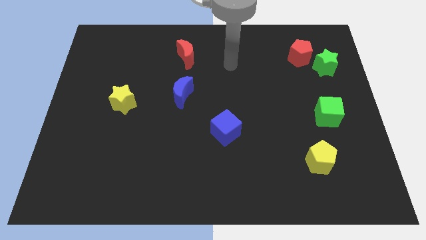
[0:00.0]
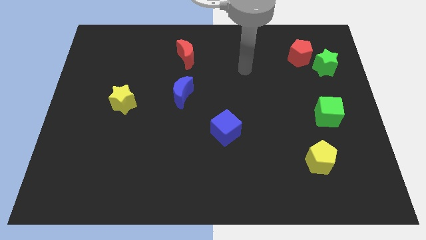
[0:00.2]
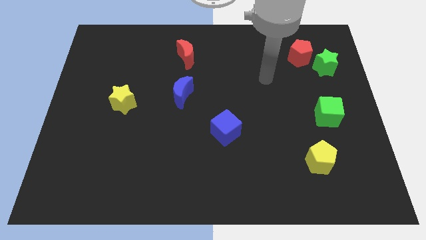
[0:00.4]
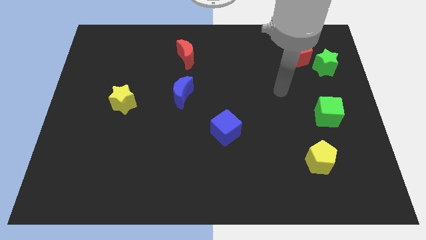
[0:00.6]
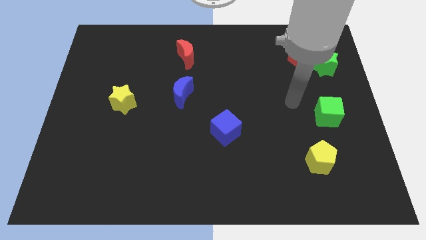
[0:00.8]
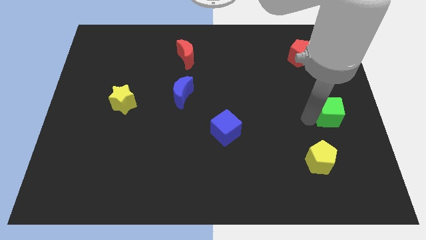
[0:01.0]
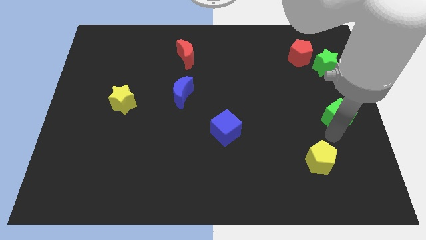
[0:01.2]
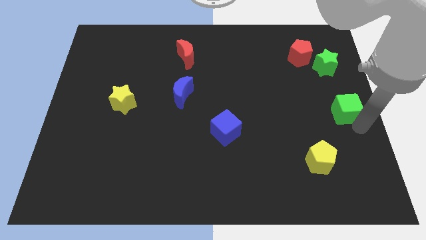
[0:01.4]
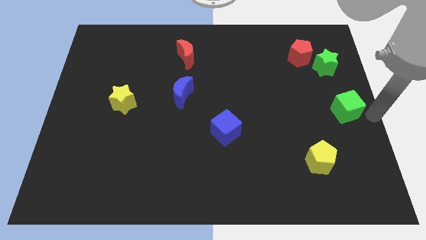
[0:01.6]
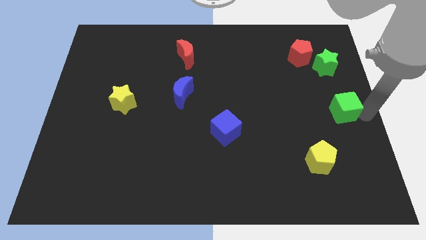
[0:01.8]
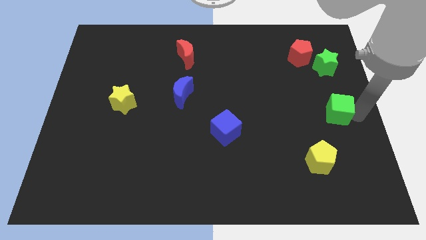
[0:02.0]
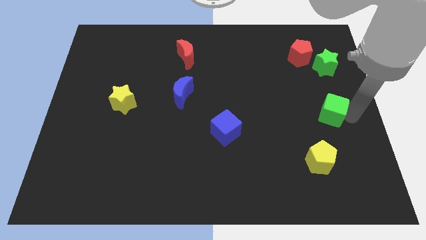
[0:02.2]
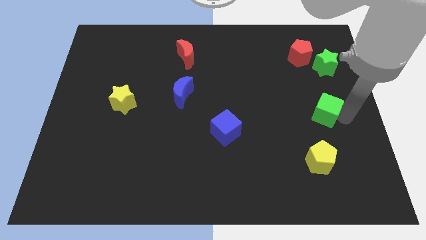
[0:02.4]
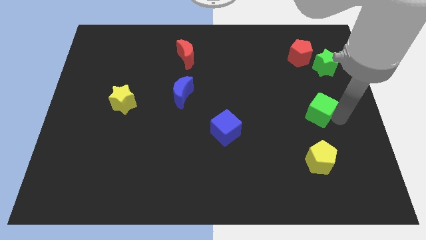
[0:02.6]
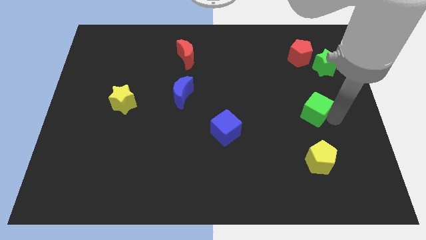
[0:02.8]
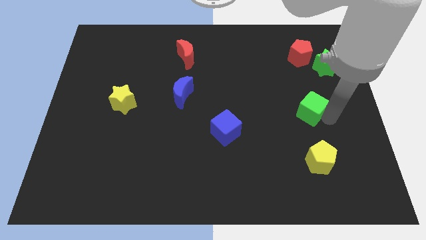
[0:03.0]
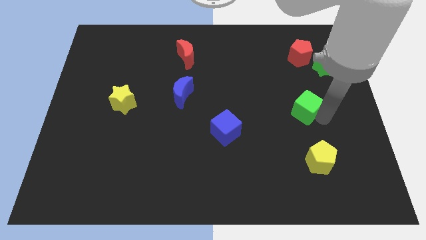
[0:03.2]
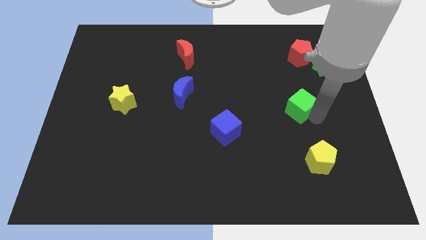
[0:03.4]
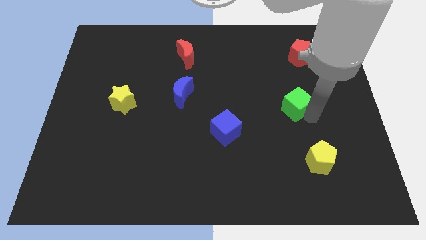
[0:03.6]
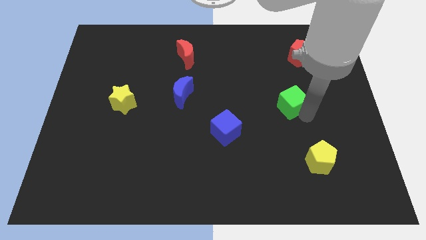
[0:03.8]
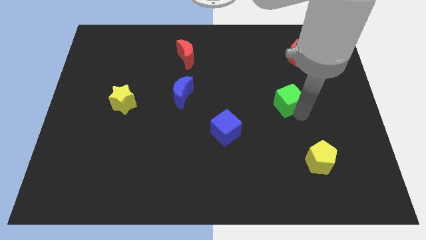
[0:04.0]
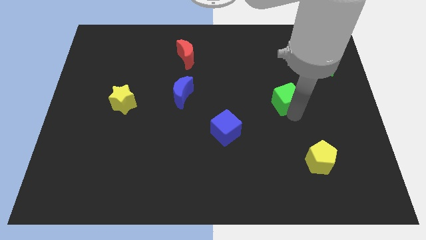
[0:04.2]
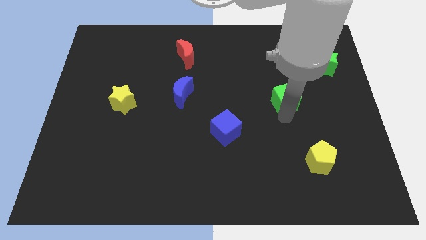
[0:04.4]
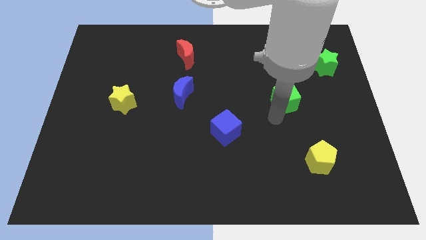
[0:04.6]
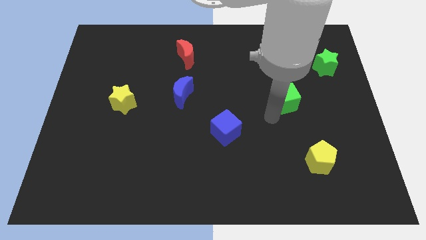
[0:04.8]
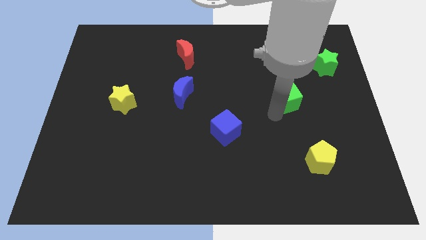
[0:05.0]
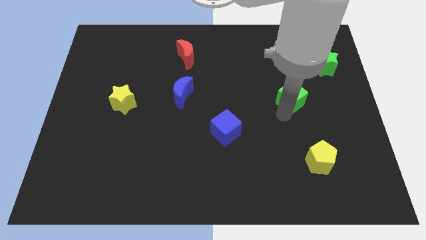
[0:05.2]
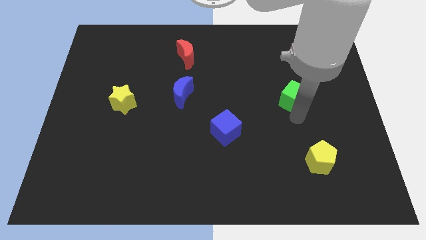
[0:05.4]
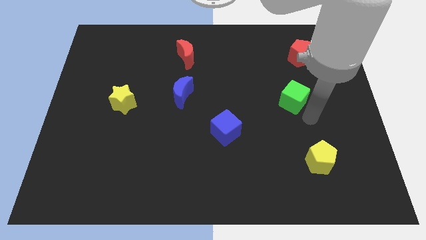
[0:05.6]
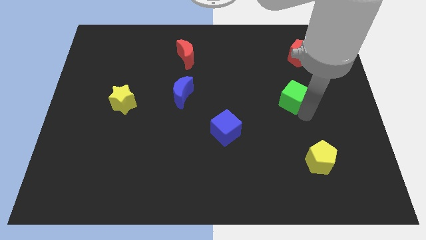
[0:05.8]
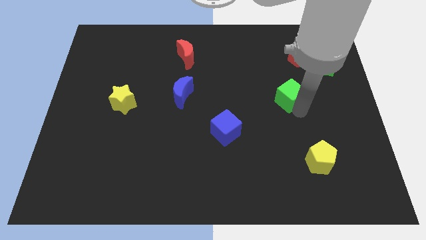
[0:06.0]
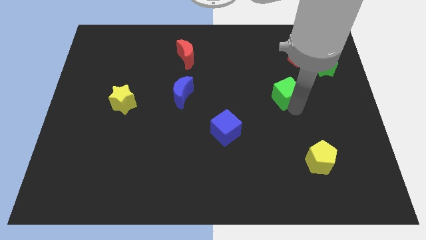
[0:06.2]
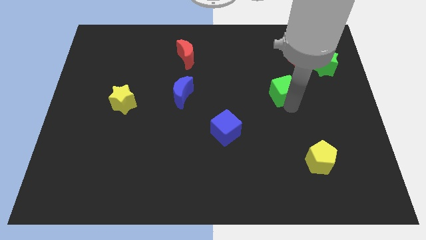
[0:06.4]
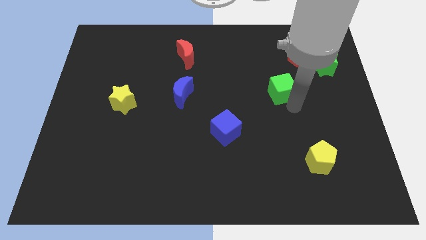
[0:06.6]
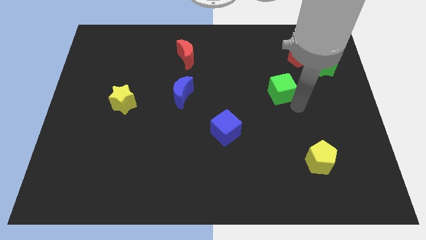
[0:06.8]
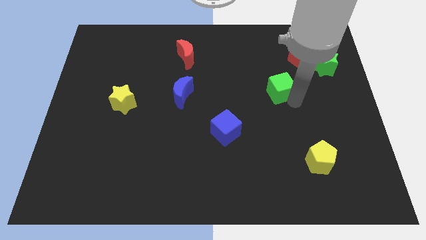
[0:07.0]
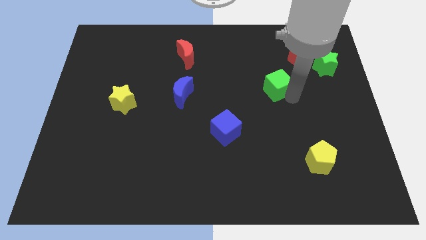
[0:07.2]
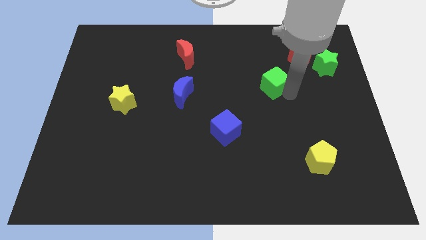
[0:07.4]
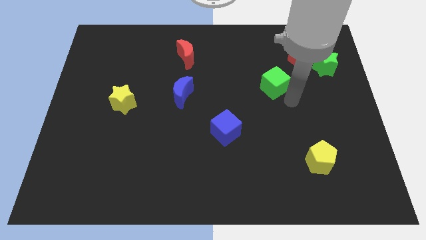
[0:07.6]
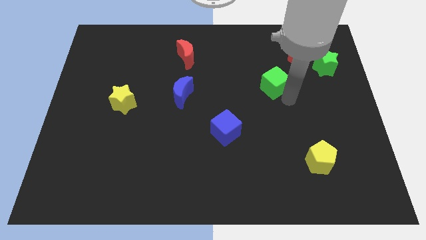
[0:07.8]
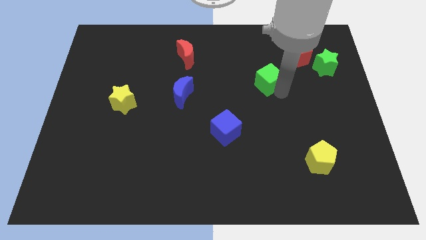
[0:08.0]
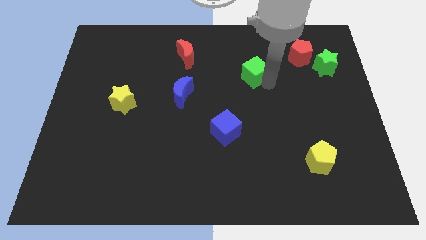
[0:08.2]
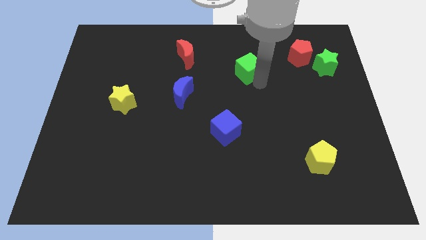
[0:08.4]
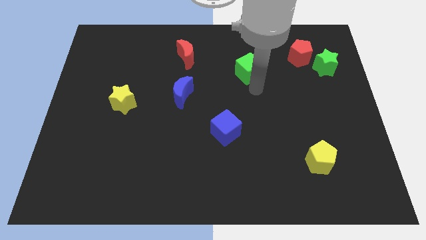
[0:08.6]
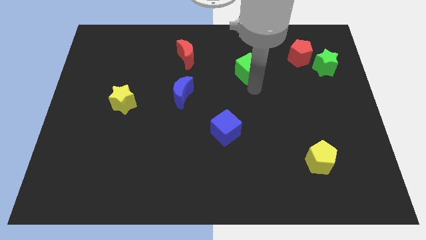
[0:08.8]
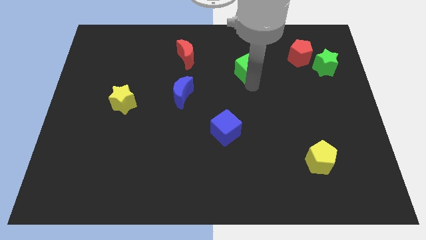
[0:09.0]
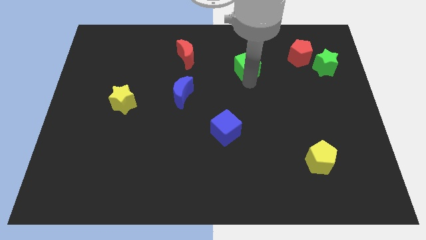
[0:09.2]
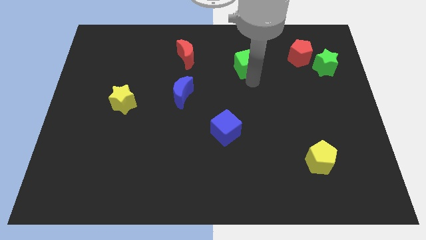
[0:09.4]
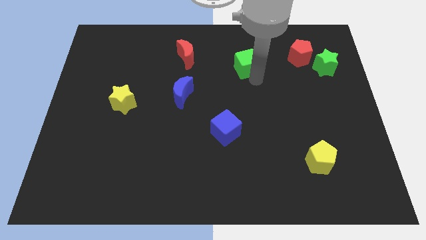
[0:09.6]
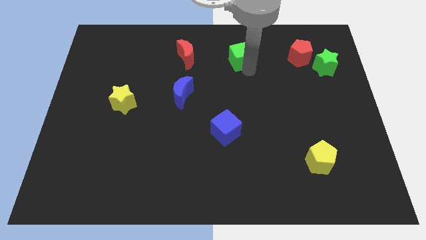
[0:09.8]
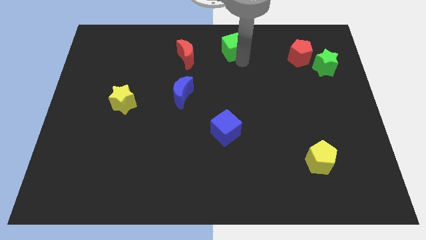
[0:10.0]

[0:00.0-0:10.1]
slide the green cube to the towards your base

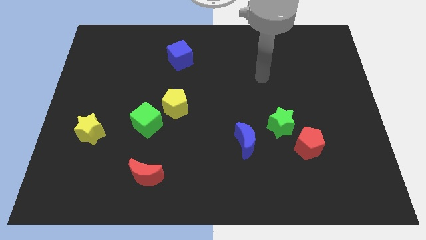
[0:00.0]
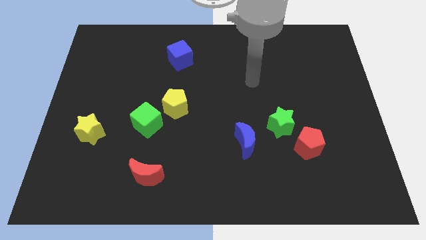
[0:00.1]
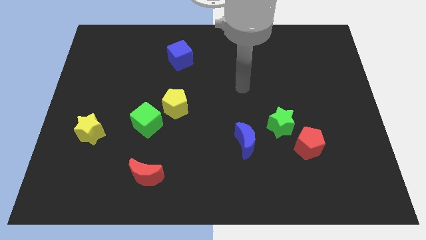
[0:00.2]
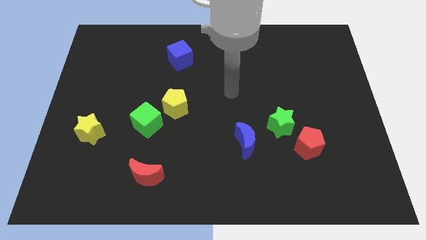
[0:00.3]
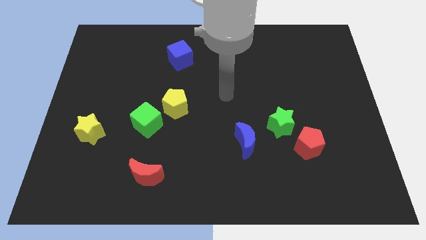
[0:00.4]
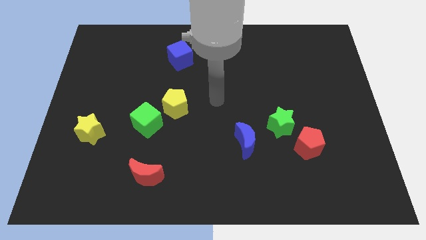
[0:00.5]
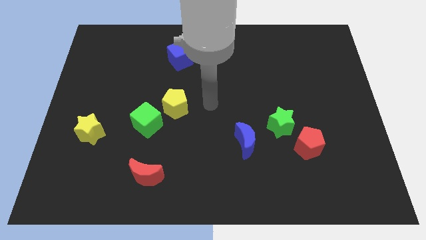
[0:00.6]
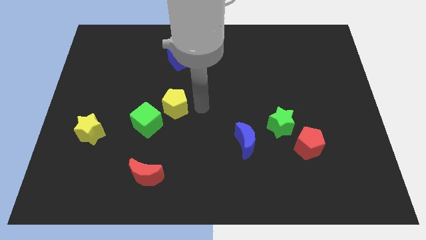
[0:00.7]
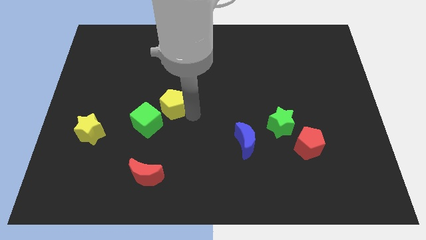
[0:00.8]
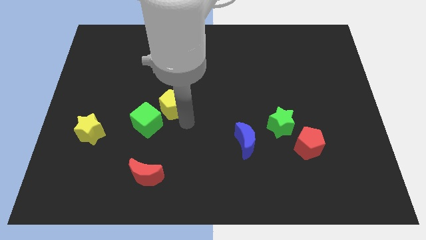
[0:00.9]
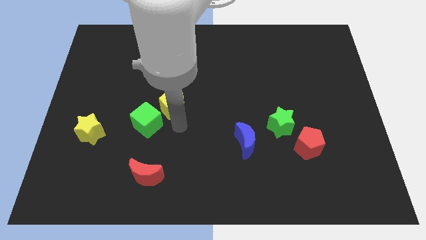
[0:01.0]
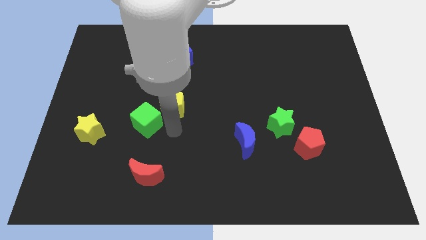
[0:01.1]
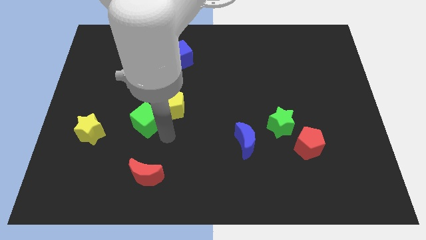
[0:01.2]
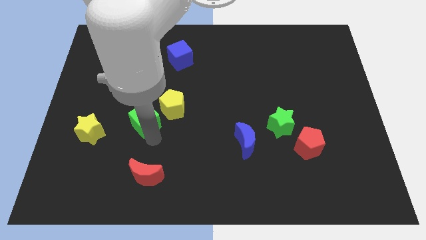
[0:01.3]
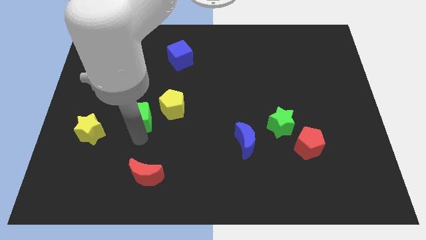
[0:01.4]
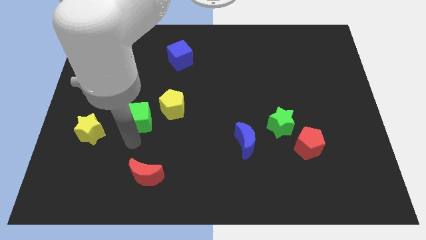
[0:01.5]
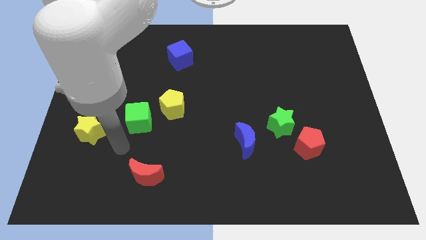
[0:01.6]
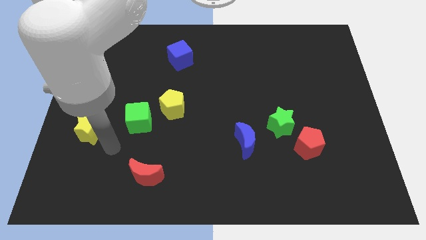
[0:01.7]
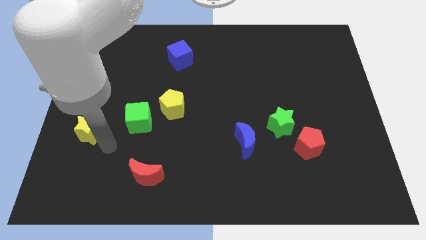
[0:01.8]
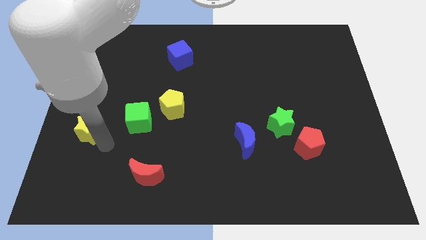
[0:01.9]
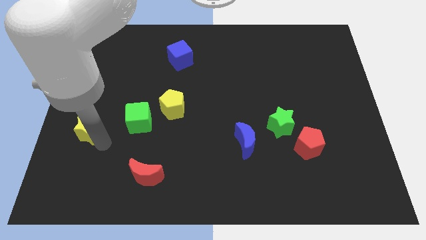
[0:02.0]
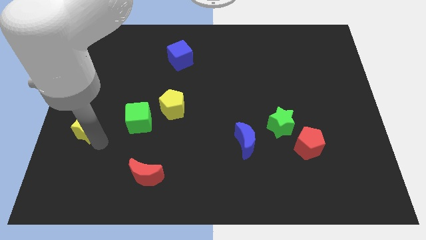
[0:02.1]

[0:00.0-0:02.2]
put the yellow star to the left side of the board
